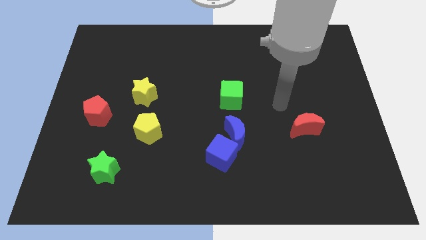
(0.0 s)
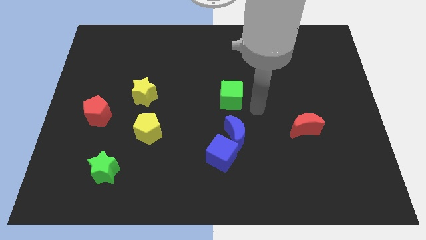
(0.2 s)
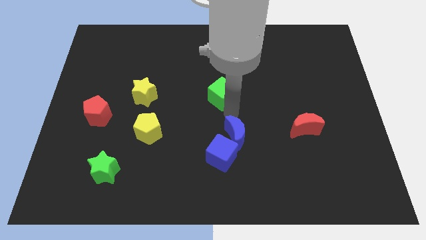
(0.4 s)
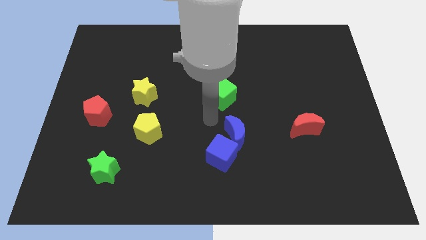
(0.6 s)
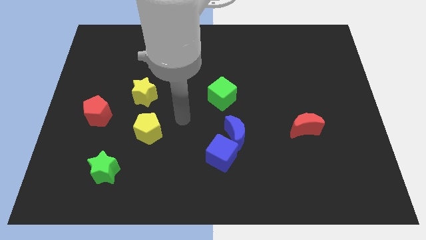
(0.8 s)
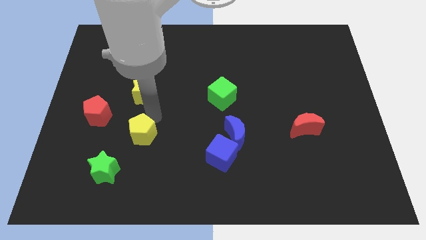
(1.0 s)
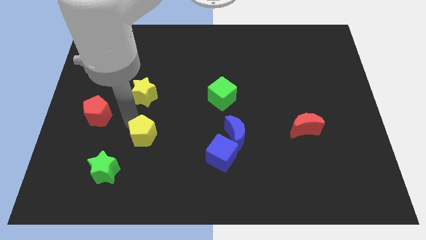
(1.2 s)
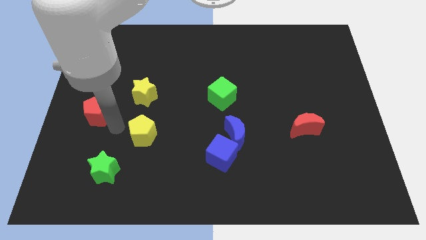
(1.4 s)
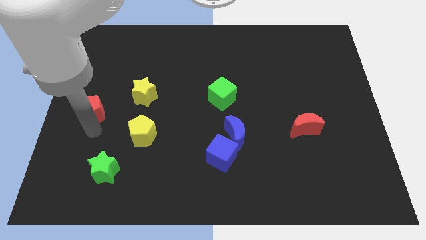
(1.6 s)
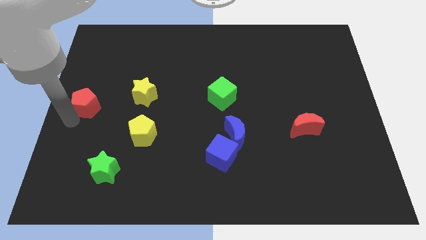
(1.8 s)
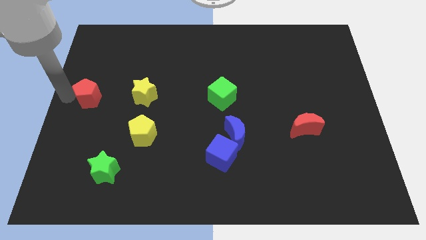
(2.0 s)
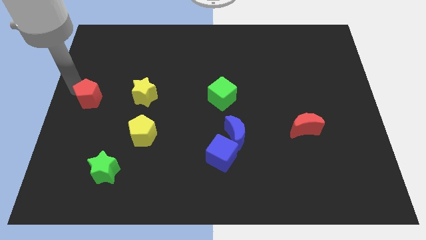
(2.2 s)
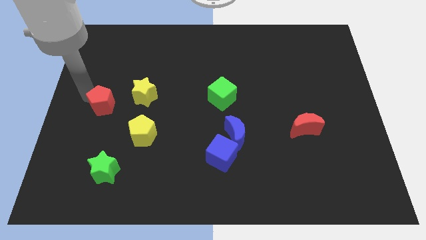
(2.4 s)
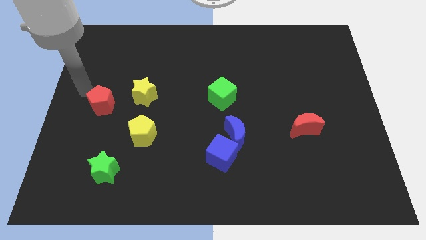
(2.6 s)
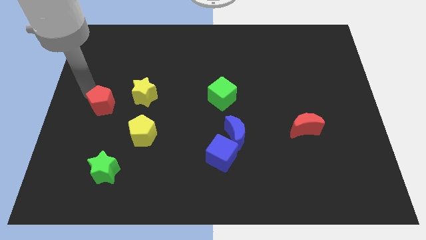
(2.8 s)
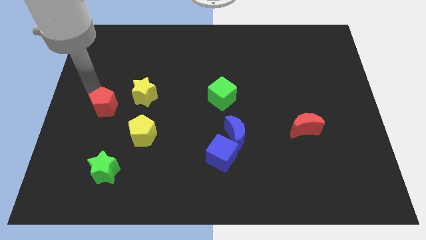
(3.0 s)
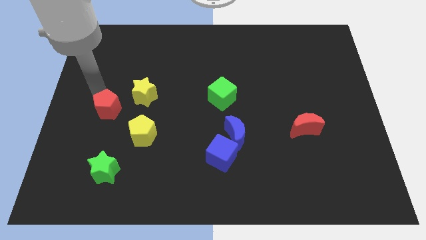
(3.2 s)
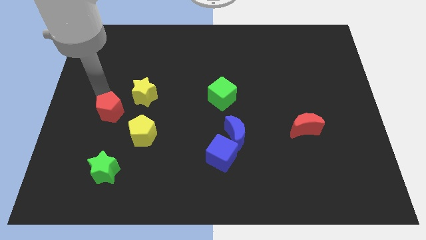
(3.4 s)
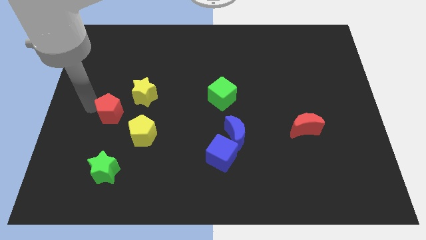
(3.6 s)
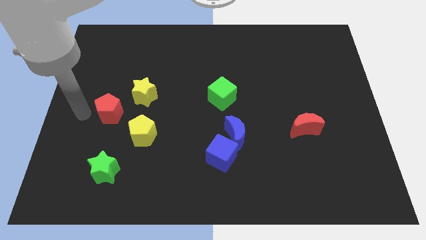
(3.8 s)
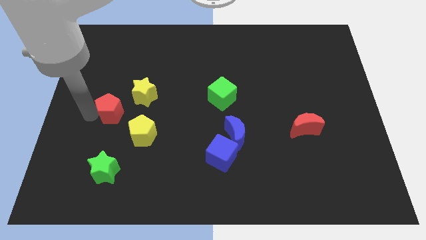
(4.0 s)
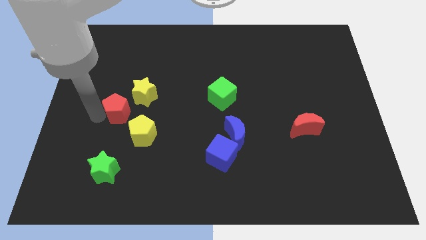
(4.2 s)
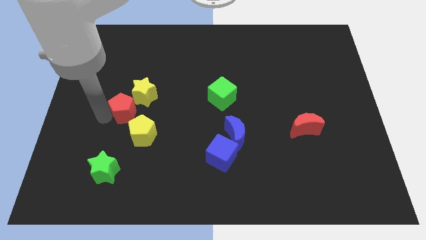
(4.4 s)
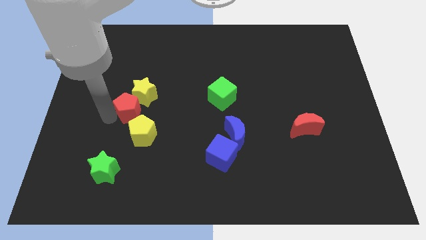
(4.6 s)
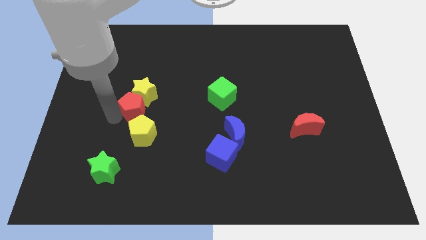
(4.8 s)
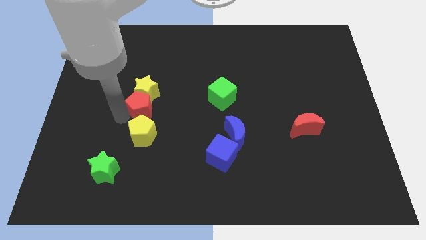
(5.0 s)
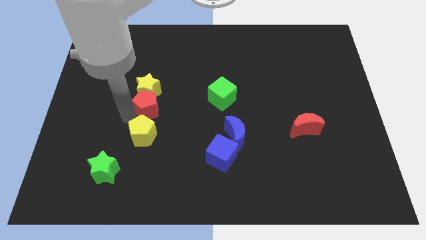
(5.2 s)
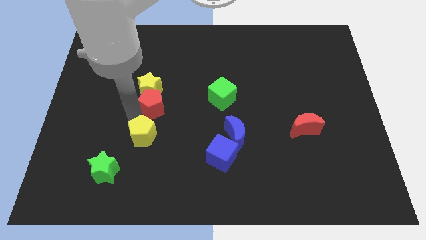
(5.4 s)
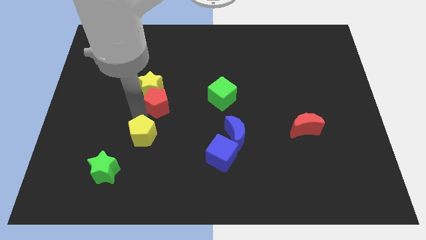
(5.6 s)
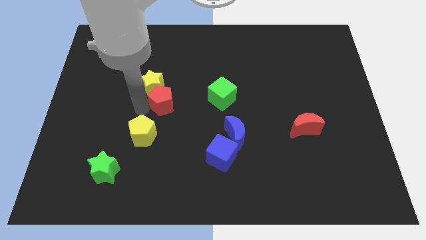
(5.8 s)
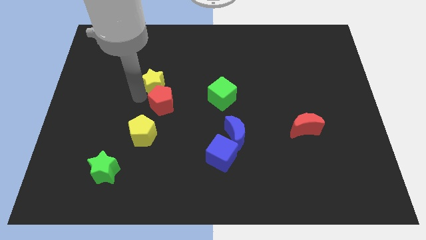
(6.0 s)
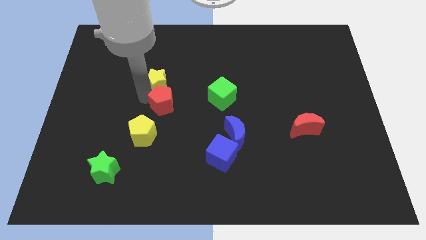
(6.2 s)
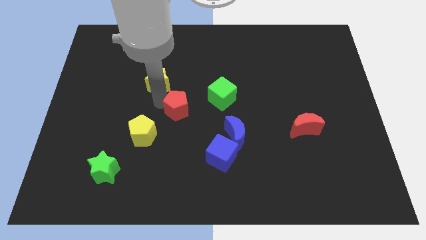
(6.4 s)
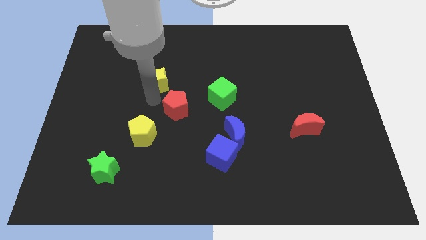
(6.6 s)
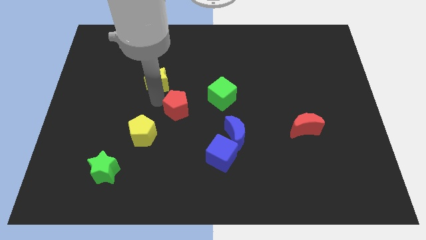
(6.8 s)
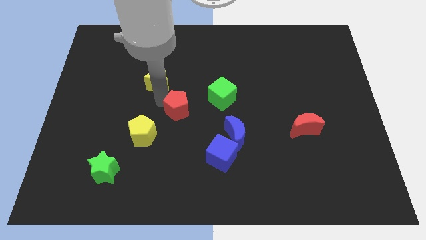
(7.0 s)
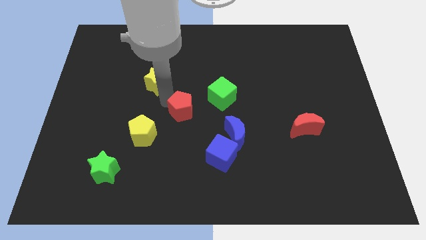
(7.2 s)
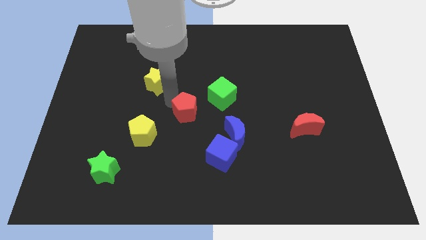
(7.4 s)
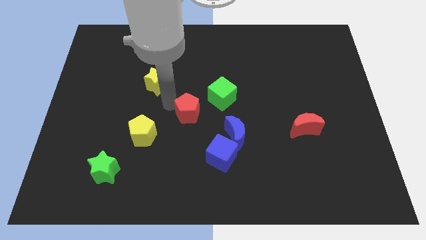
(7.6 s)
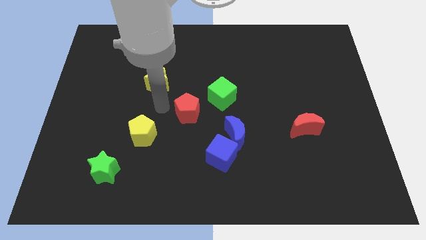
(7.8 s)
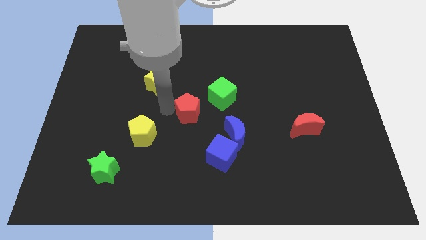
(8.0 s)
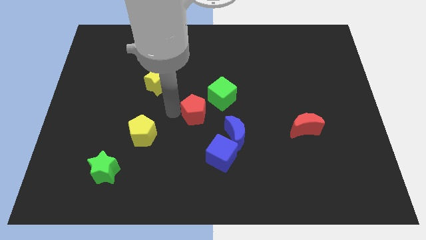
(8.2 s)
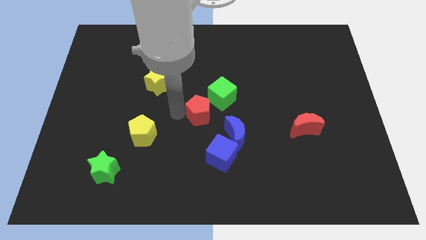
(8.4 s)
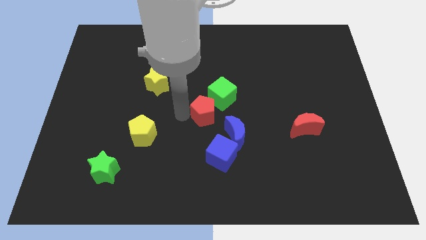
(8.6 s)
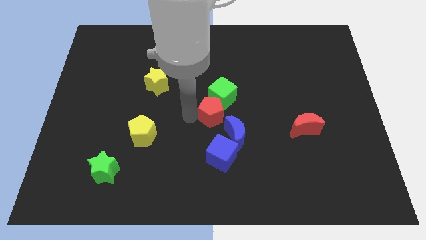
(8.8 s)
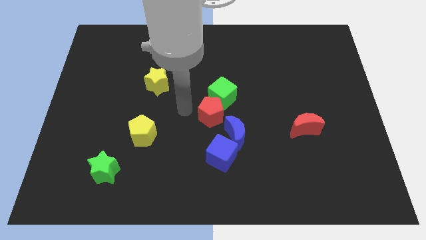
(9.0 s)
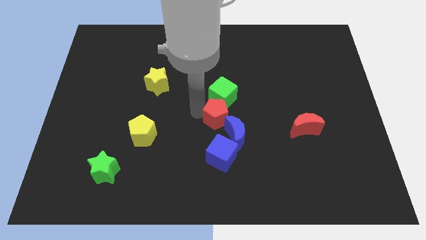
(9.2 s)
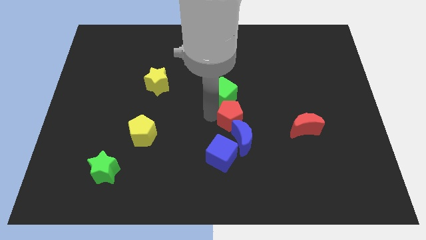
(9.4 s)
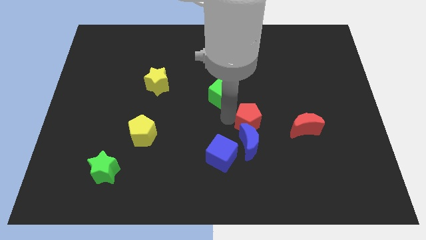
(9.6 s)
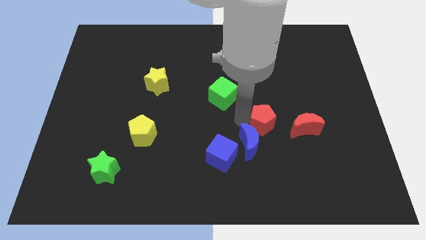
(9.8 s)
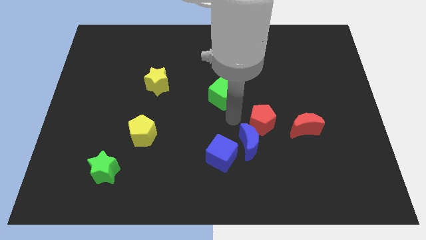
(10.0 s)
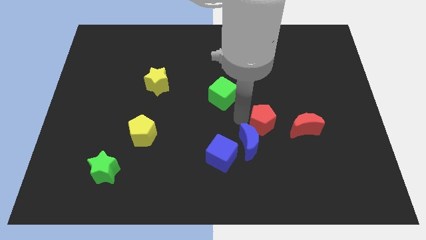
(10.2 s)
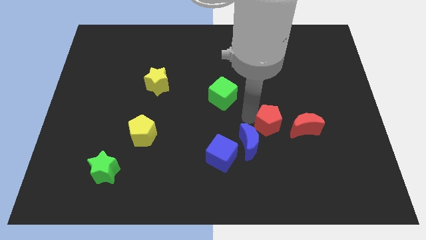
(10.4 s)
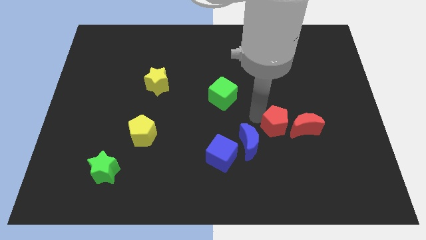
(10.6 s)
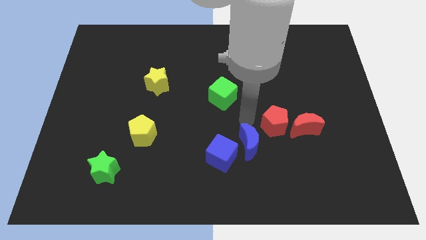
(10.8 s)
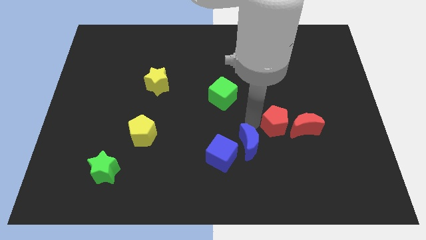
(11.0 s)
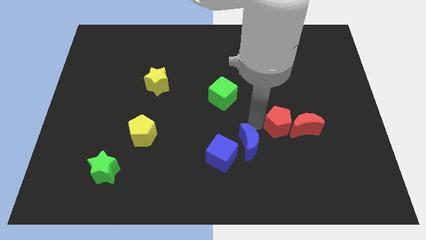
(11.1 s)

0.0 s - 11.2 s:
put the red pentagon towards the red moon

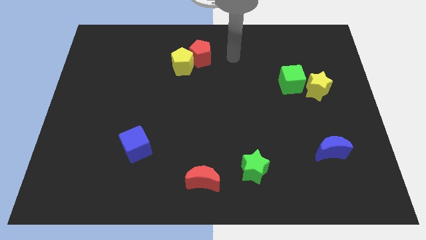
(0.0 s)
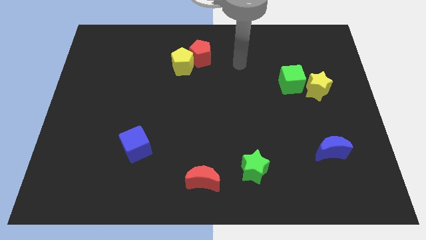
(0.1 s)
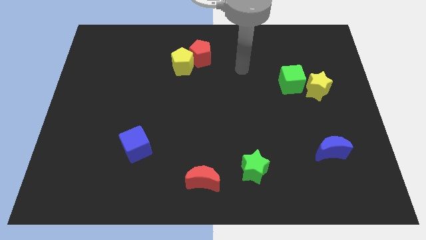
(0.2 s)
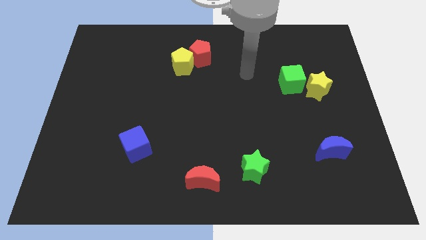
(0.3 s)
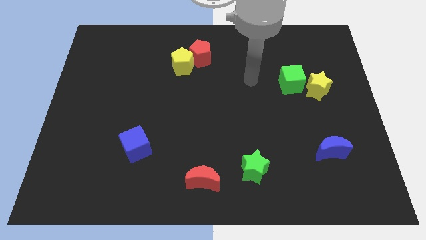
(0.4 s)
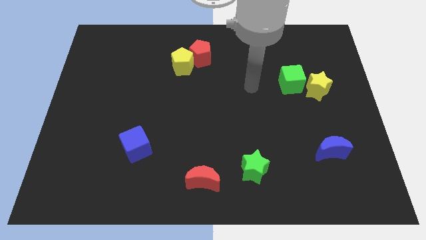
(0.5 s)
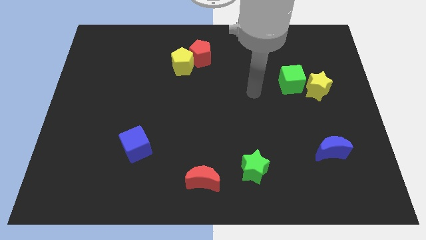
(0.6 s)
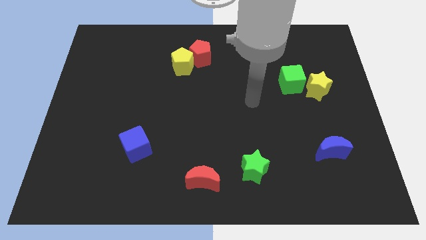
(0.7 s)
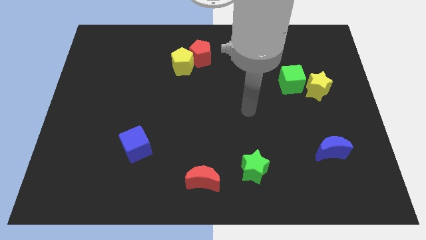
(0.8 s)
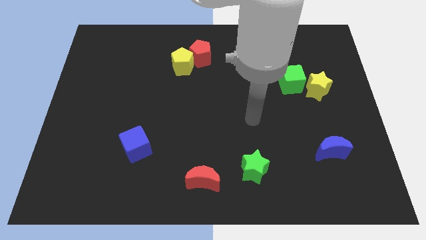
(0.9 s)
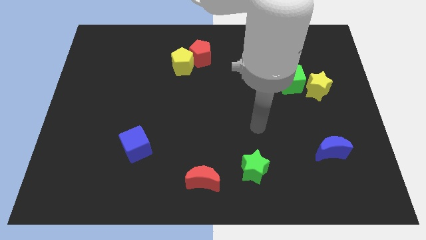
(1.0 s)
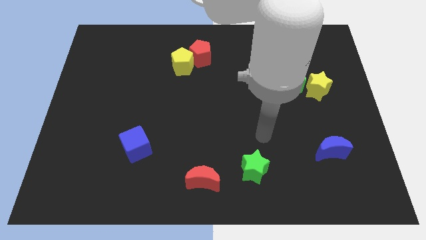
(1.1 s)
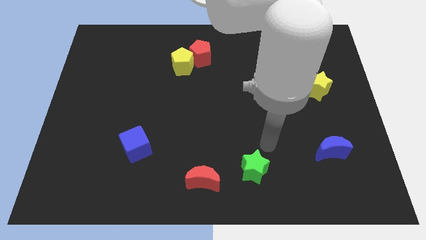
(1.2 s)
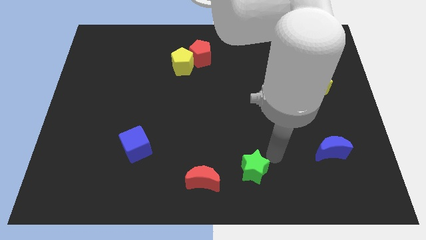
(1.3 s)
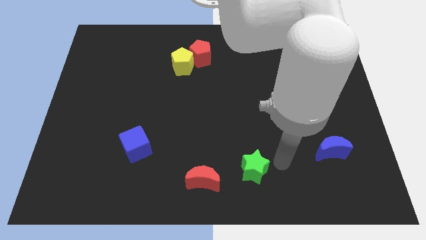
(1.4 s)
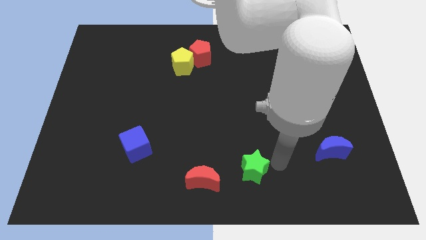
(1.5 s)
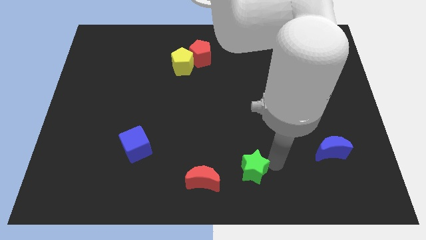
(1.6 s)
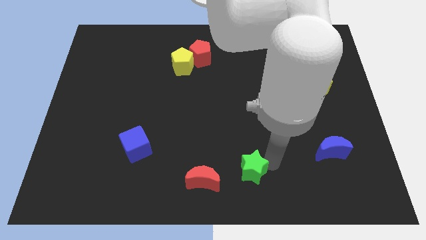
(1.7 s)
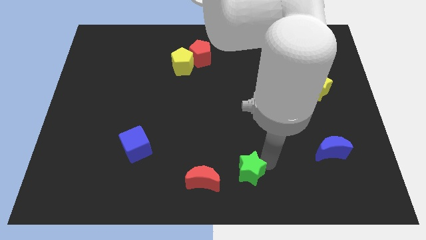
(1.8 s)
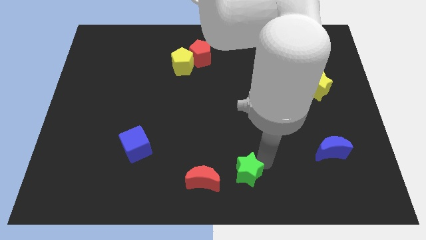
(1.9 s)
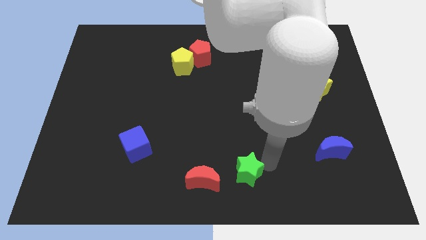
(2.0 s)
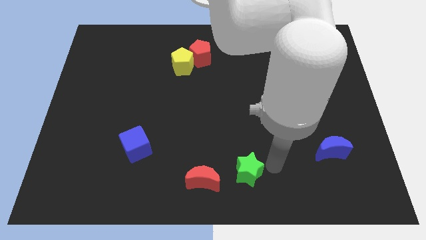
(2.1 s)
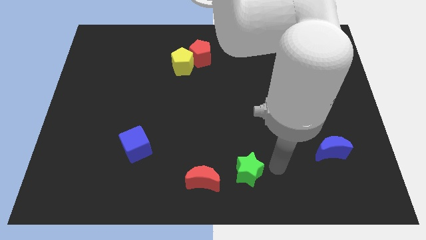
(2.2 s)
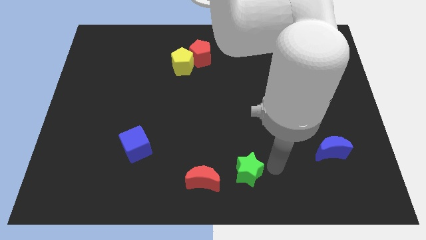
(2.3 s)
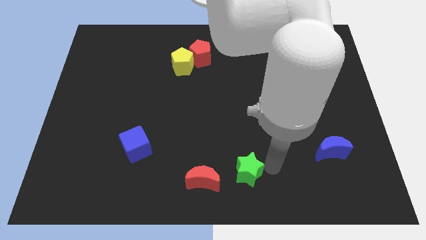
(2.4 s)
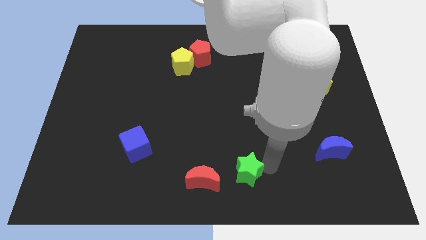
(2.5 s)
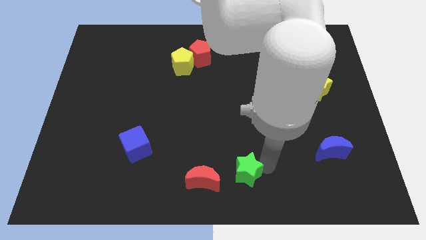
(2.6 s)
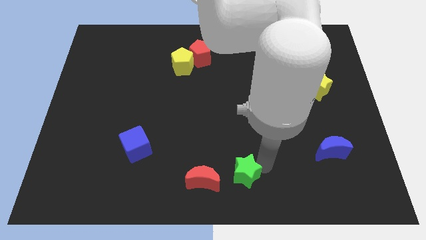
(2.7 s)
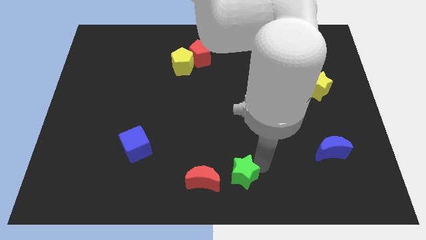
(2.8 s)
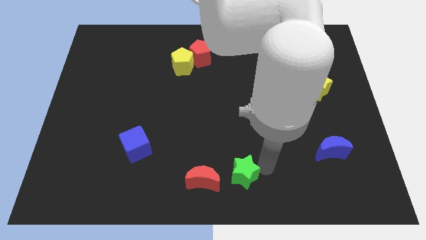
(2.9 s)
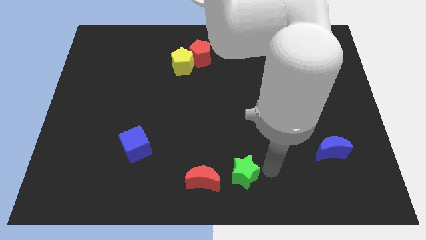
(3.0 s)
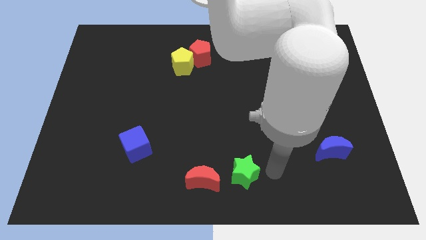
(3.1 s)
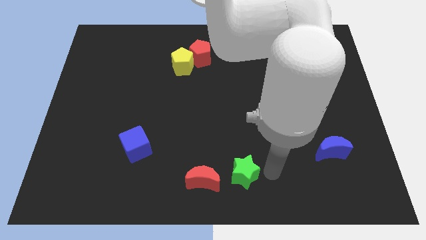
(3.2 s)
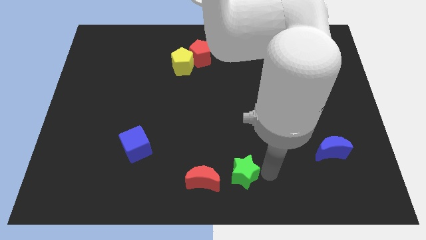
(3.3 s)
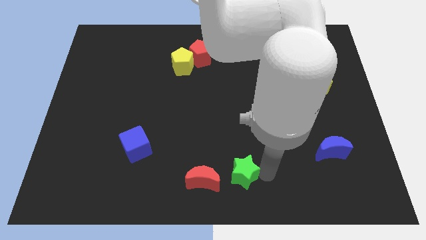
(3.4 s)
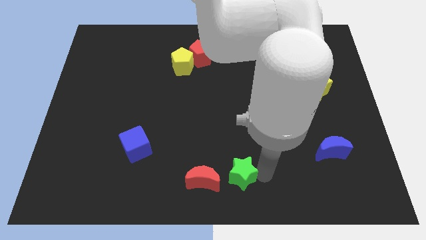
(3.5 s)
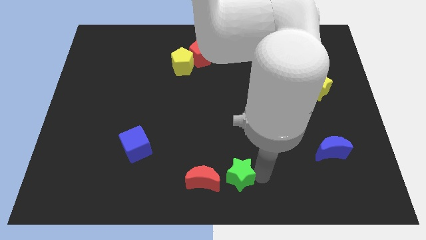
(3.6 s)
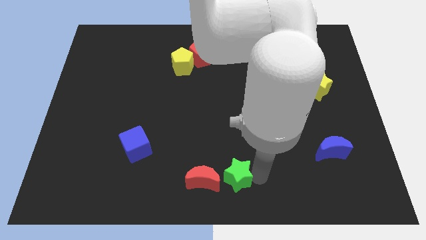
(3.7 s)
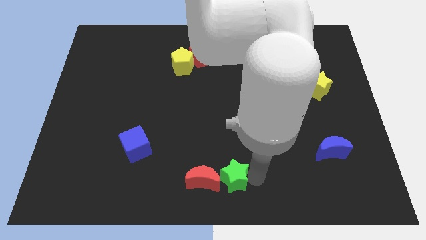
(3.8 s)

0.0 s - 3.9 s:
push the green star to the red moon
